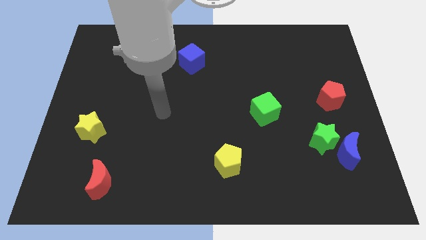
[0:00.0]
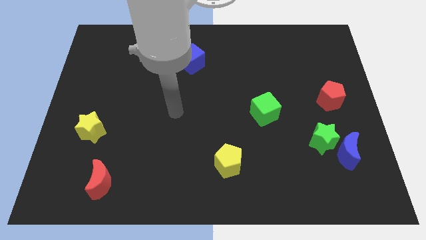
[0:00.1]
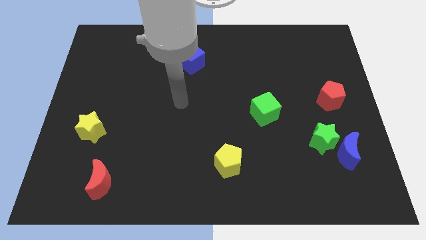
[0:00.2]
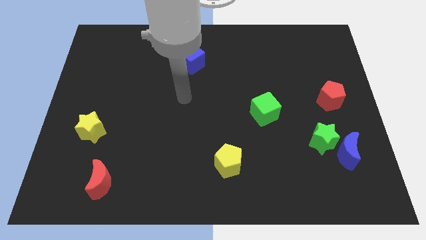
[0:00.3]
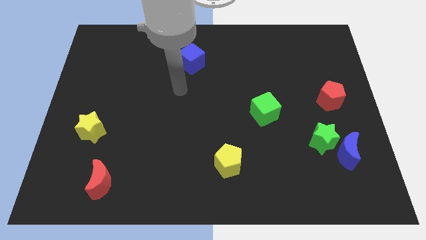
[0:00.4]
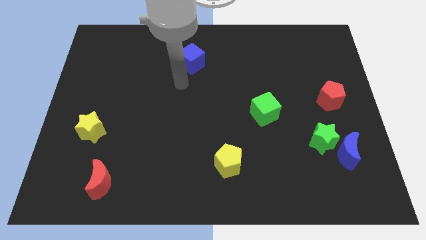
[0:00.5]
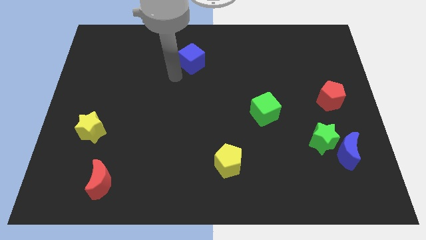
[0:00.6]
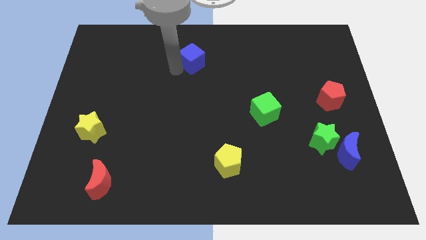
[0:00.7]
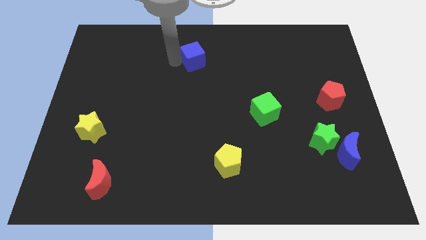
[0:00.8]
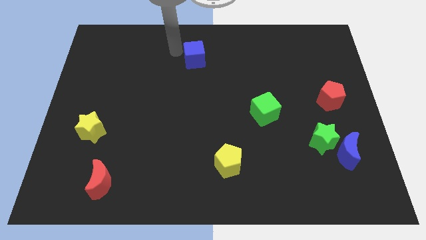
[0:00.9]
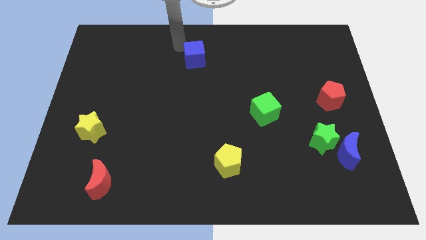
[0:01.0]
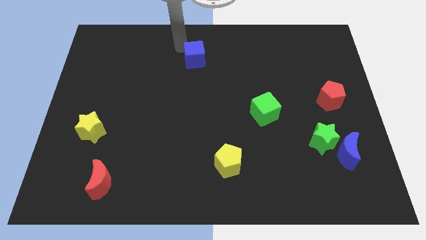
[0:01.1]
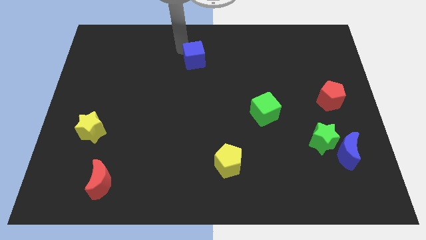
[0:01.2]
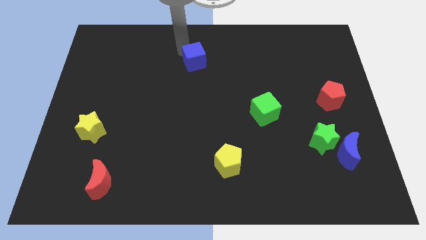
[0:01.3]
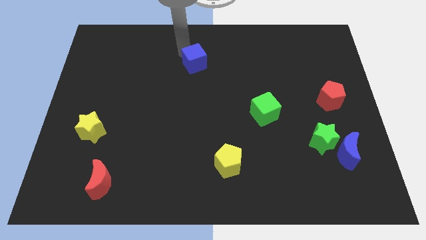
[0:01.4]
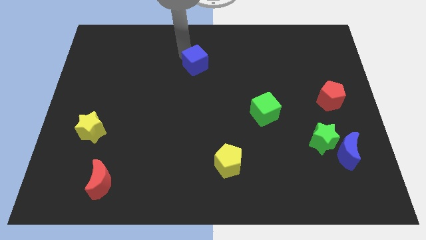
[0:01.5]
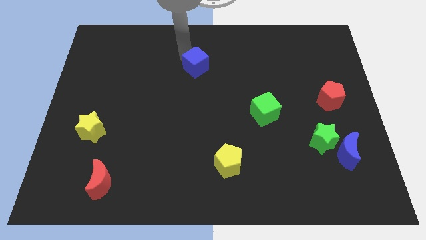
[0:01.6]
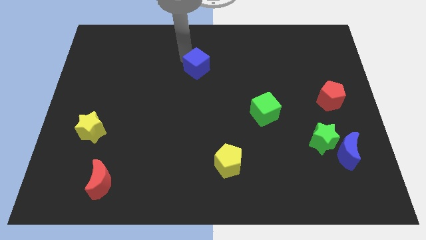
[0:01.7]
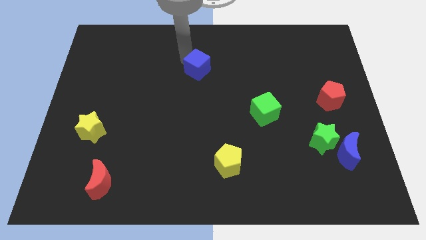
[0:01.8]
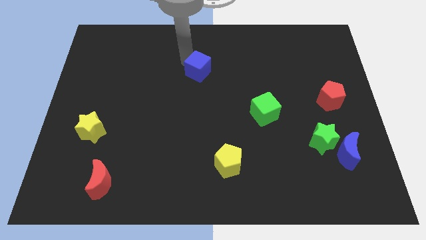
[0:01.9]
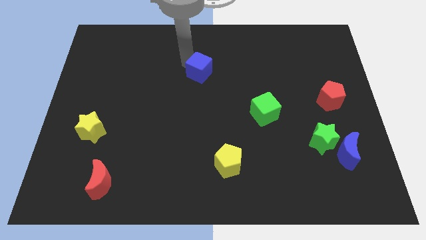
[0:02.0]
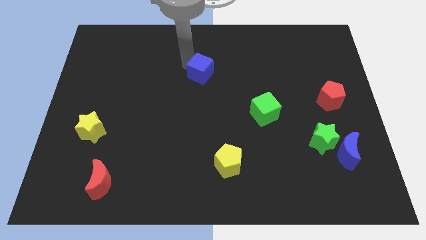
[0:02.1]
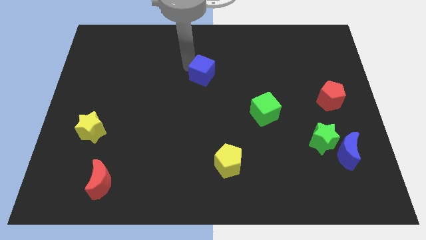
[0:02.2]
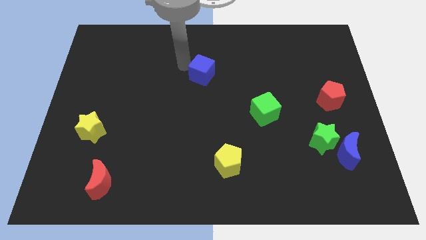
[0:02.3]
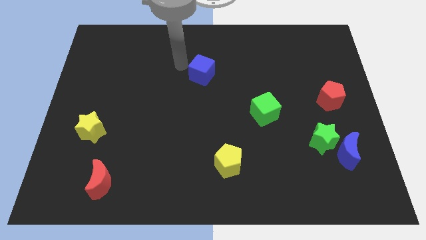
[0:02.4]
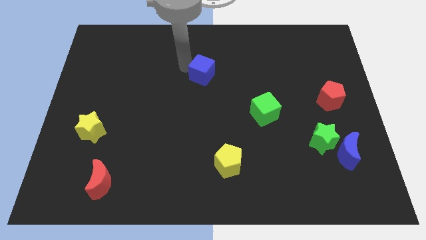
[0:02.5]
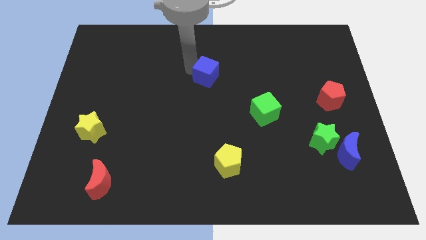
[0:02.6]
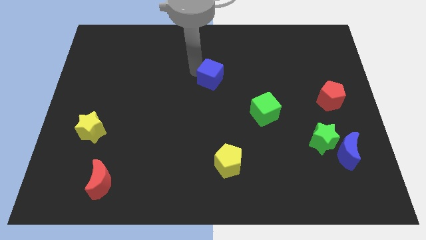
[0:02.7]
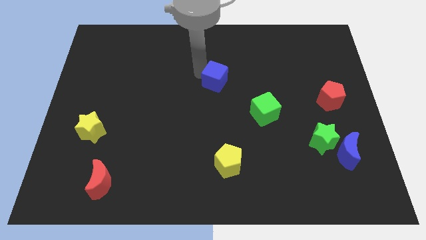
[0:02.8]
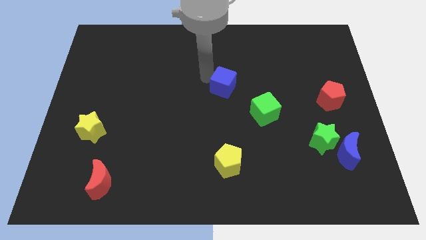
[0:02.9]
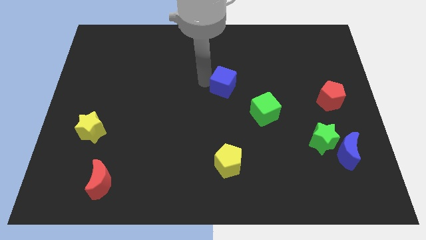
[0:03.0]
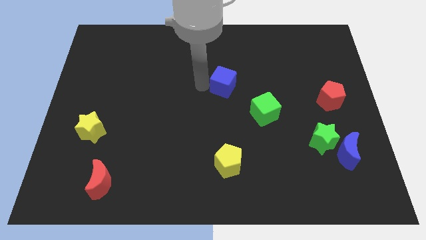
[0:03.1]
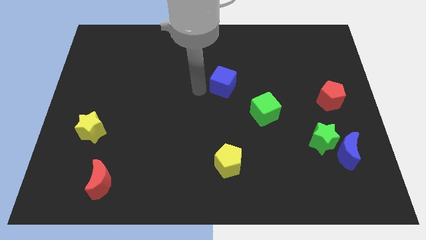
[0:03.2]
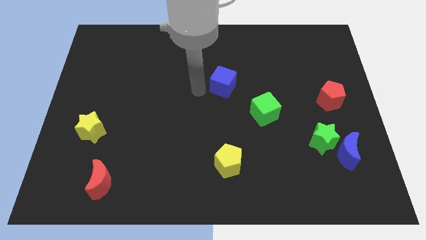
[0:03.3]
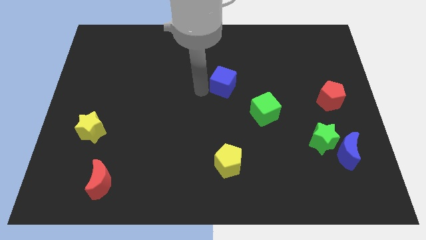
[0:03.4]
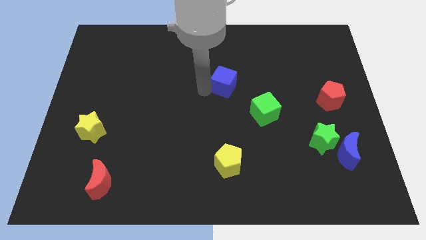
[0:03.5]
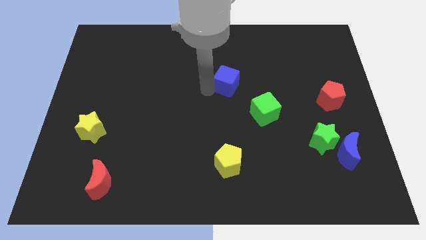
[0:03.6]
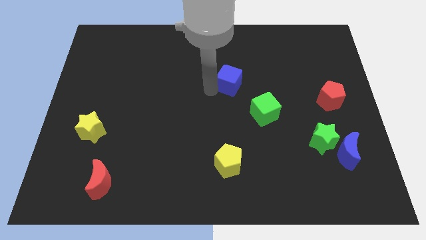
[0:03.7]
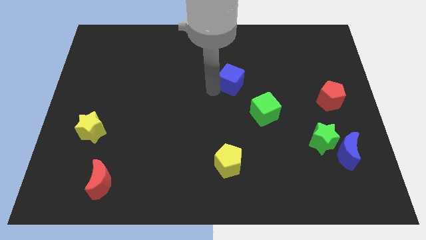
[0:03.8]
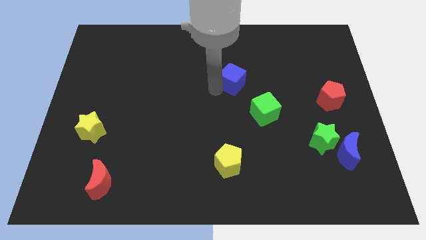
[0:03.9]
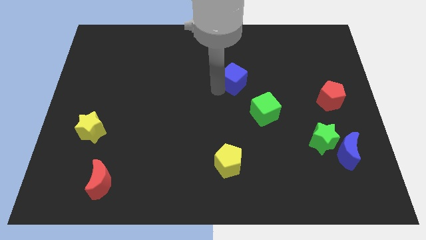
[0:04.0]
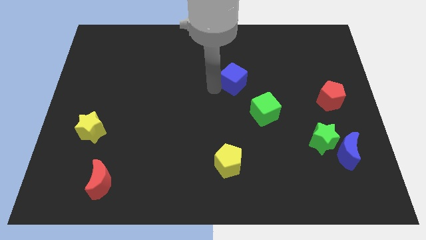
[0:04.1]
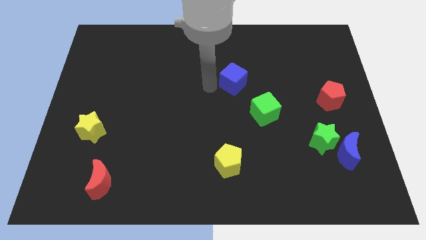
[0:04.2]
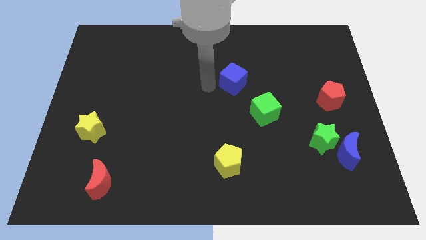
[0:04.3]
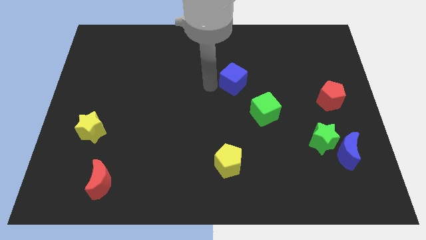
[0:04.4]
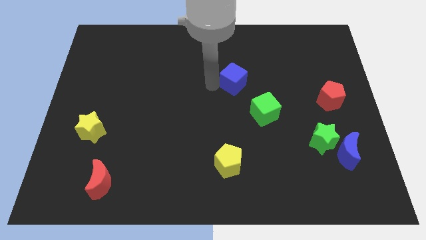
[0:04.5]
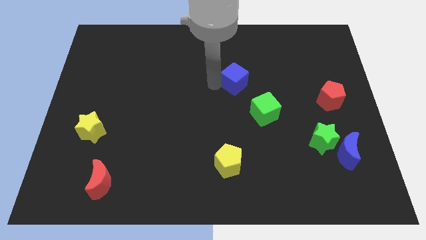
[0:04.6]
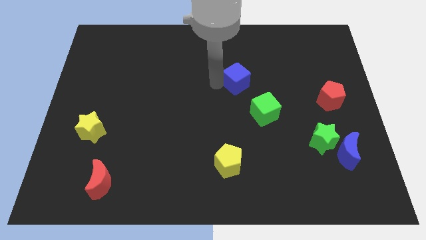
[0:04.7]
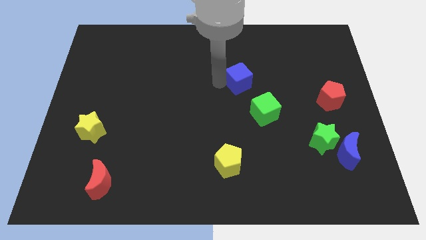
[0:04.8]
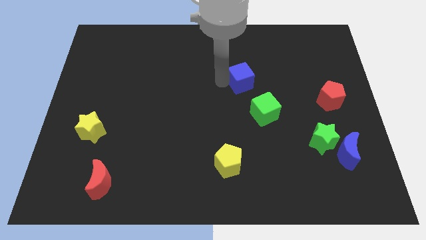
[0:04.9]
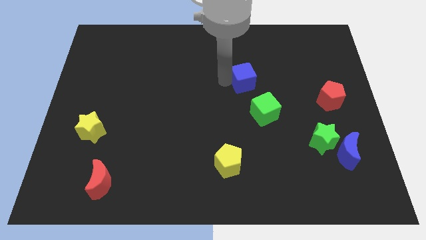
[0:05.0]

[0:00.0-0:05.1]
push the blue cube above the green cube

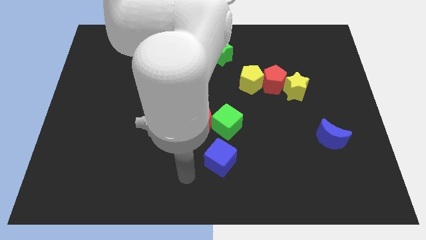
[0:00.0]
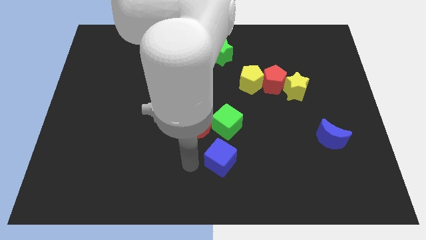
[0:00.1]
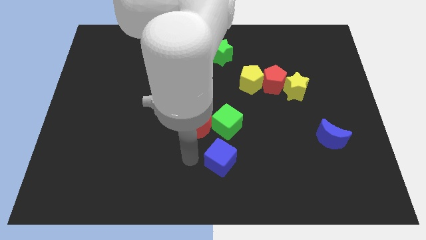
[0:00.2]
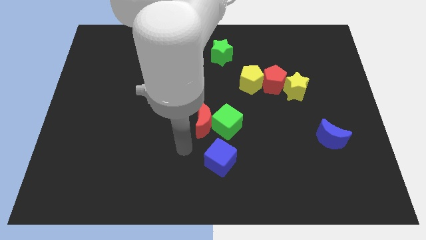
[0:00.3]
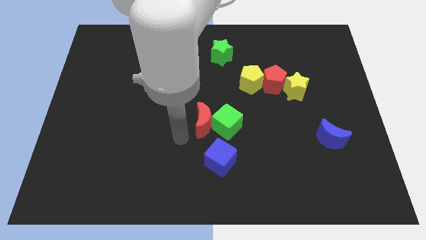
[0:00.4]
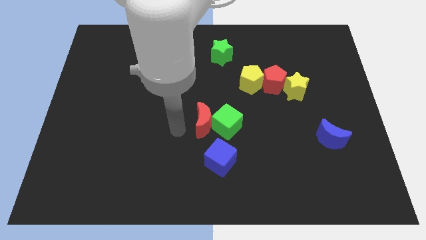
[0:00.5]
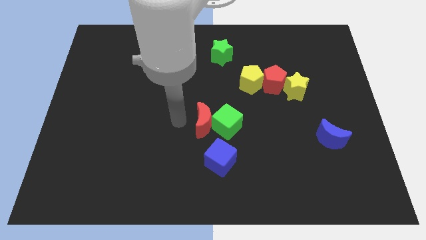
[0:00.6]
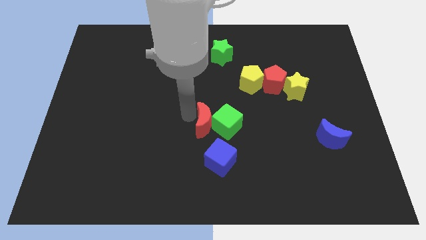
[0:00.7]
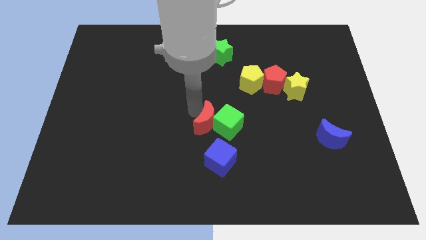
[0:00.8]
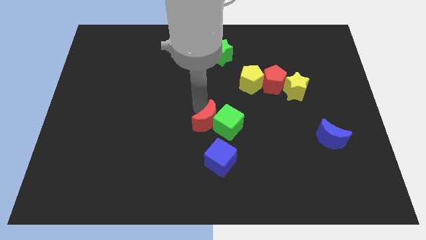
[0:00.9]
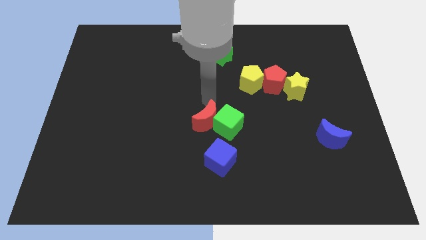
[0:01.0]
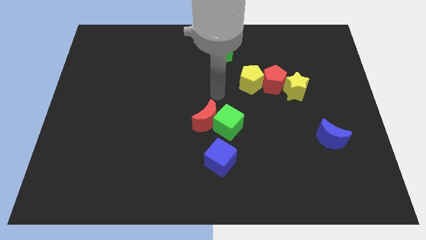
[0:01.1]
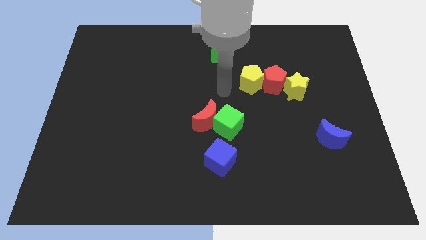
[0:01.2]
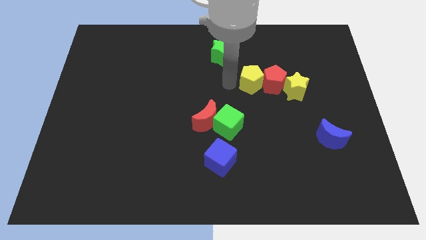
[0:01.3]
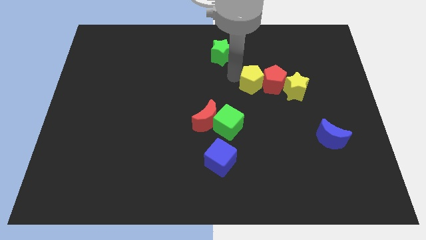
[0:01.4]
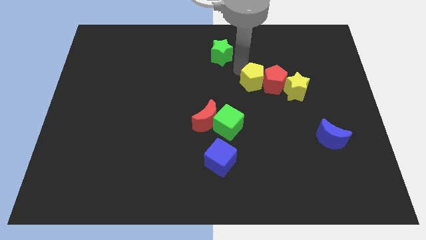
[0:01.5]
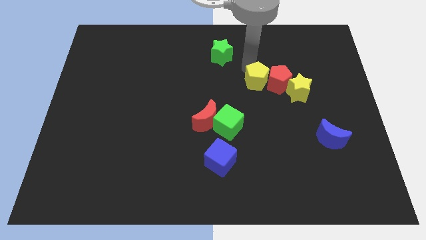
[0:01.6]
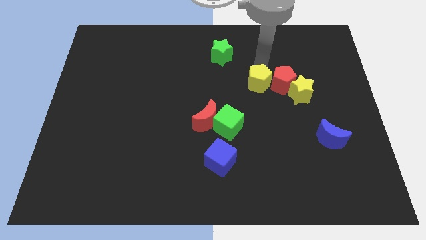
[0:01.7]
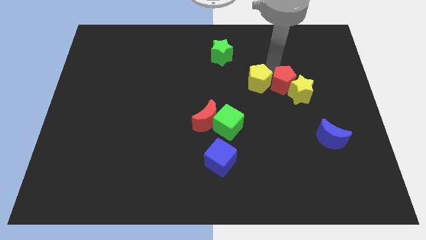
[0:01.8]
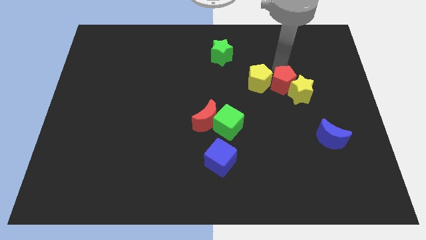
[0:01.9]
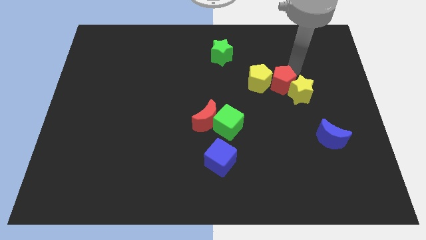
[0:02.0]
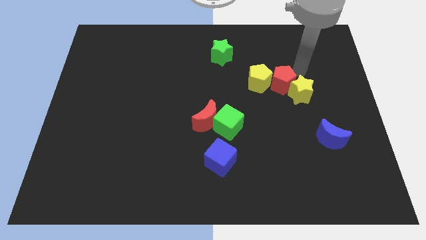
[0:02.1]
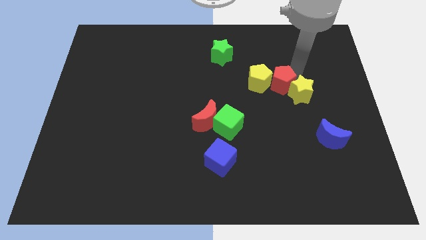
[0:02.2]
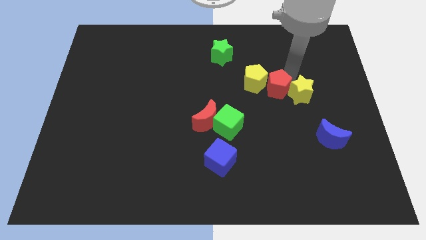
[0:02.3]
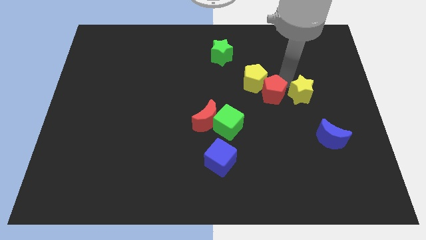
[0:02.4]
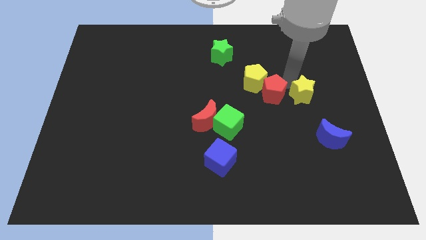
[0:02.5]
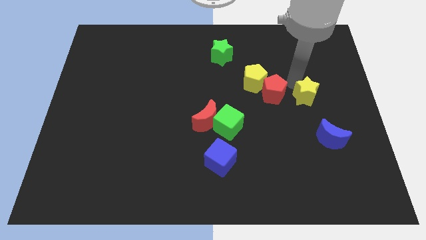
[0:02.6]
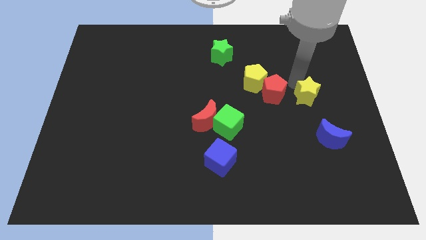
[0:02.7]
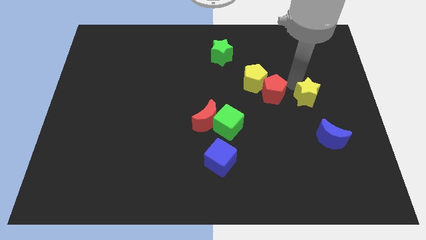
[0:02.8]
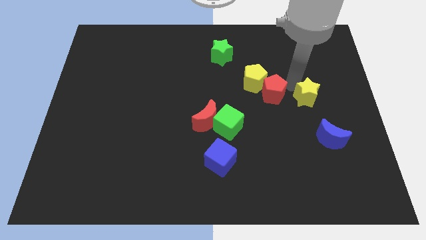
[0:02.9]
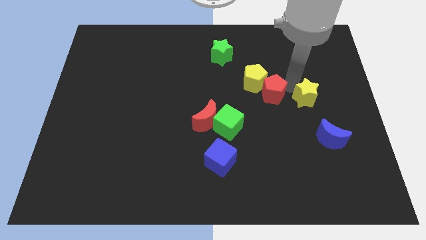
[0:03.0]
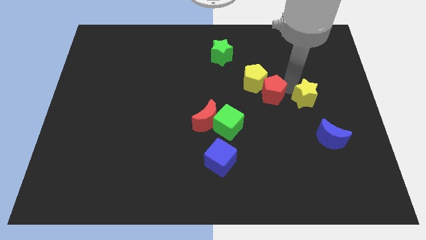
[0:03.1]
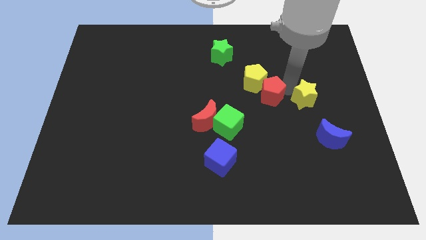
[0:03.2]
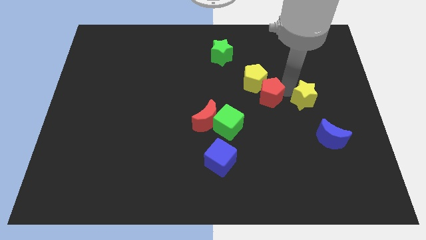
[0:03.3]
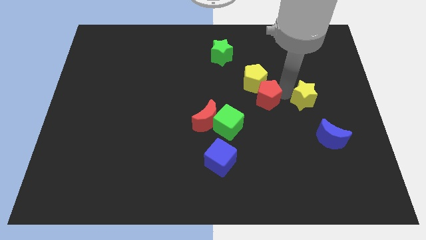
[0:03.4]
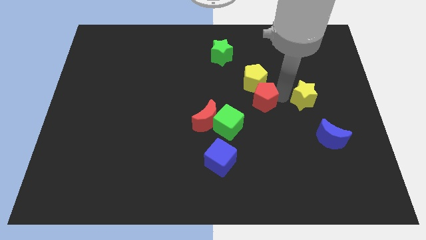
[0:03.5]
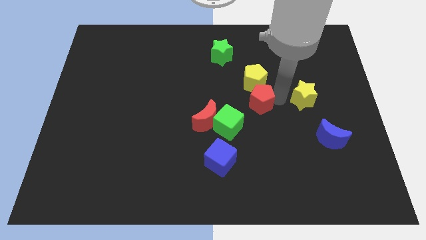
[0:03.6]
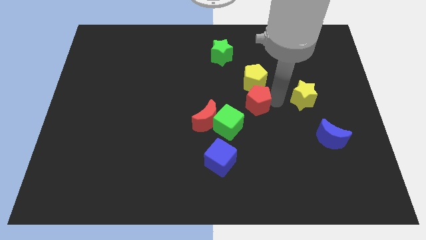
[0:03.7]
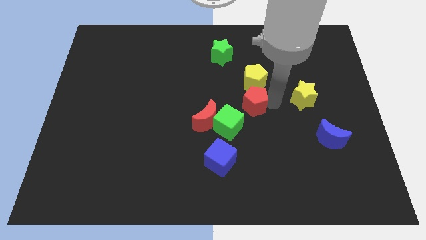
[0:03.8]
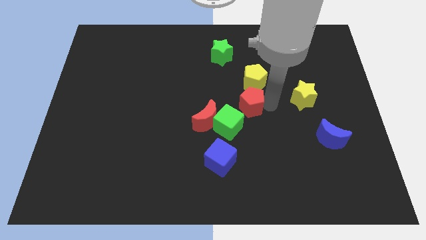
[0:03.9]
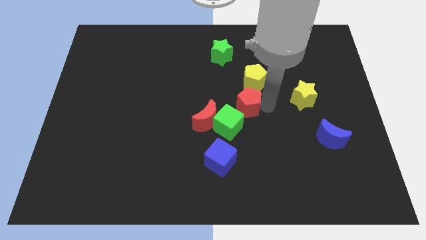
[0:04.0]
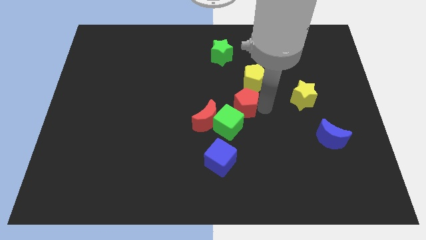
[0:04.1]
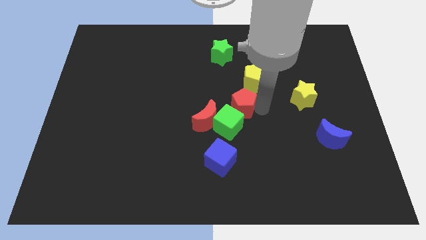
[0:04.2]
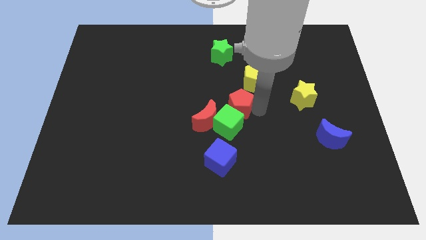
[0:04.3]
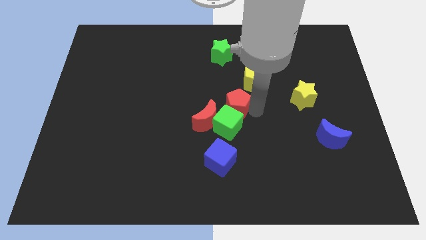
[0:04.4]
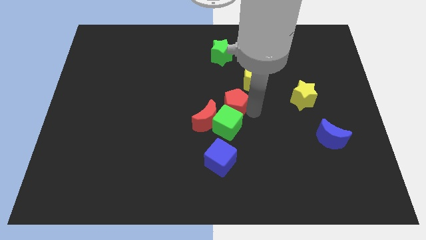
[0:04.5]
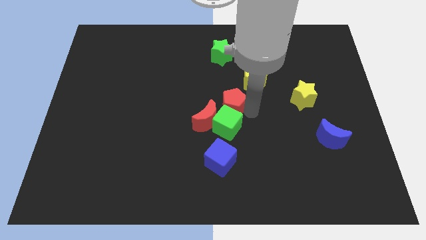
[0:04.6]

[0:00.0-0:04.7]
push the red pentagon diagonally up and to the left of the green cube
